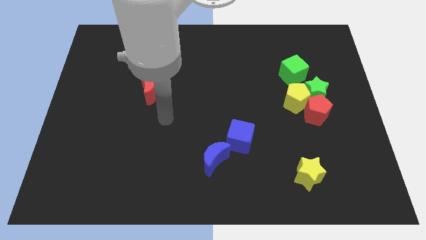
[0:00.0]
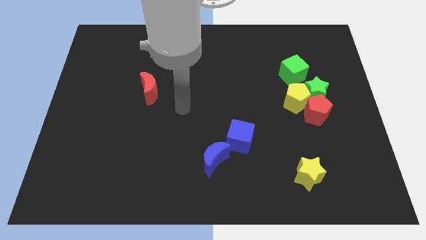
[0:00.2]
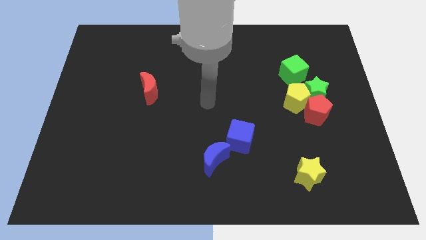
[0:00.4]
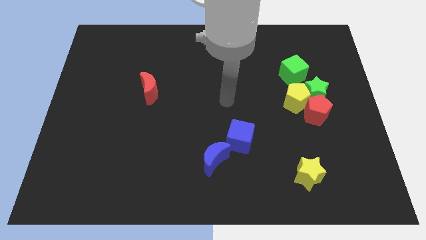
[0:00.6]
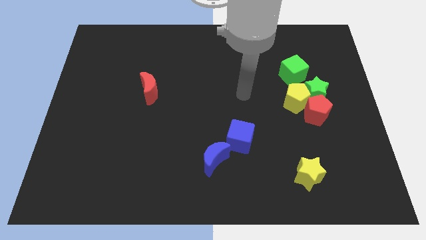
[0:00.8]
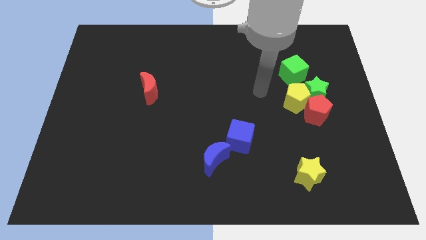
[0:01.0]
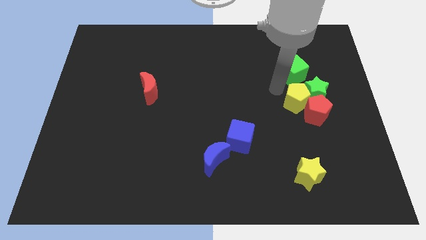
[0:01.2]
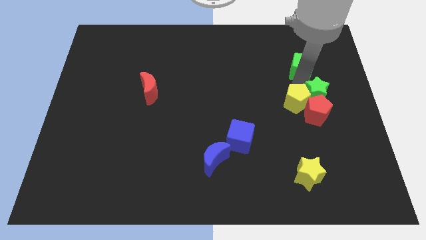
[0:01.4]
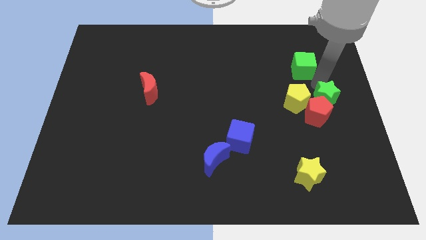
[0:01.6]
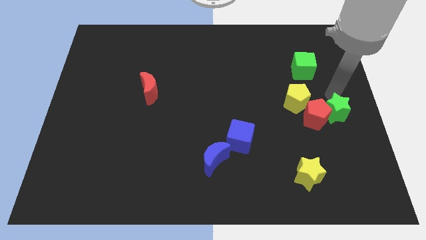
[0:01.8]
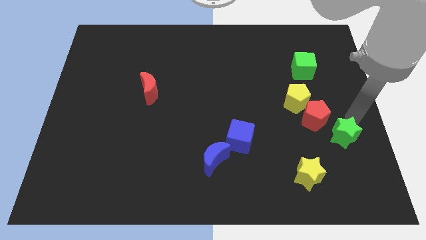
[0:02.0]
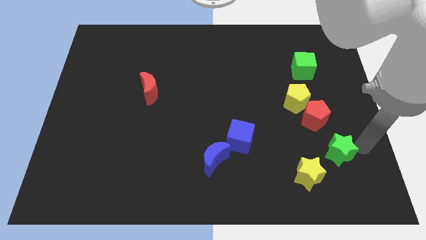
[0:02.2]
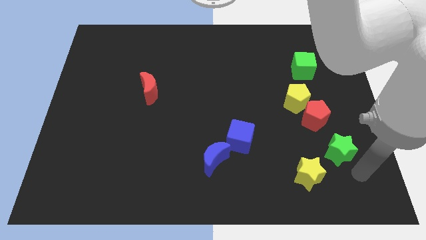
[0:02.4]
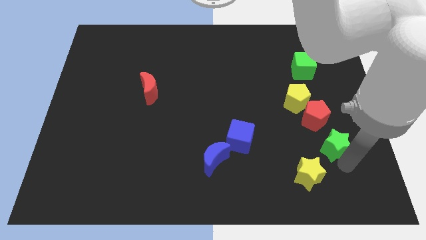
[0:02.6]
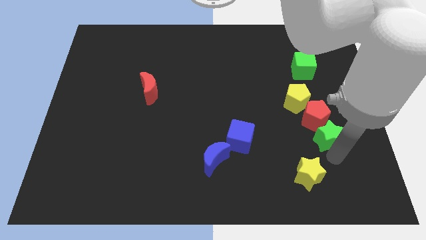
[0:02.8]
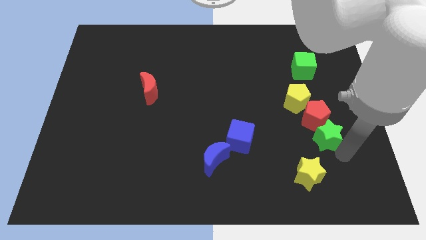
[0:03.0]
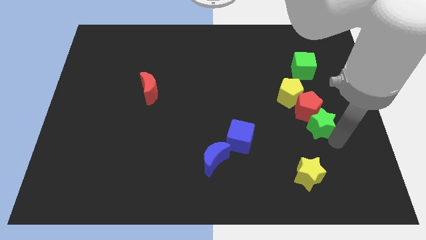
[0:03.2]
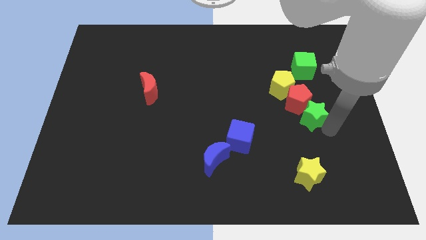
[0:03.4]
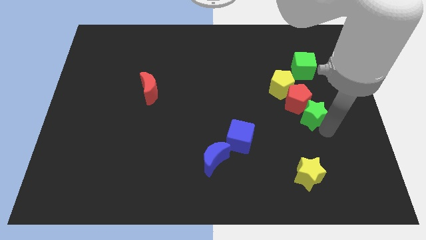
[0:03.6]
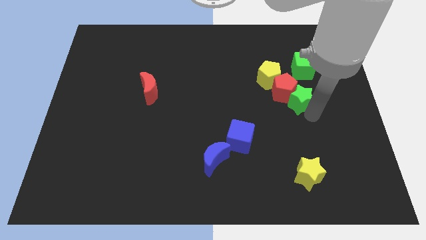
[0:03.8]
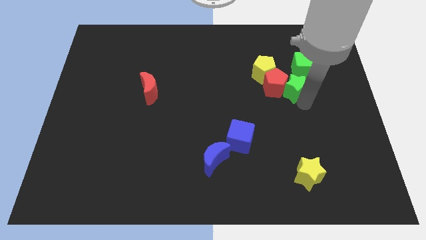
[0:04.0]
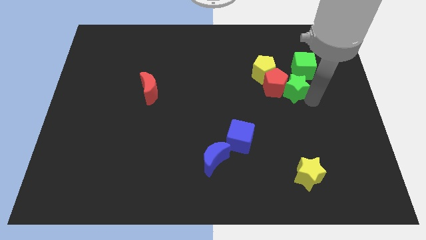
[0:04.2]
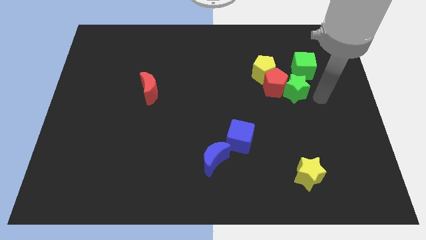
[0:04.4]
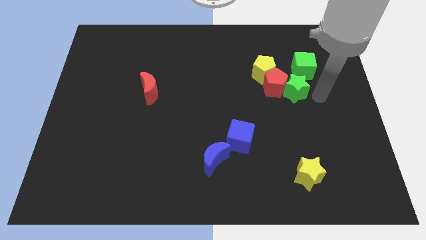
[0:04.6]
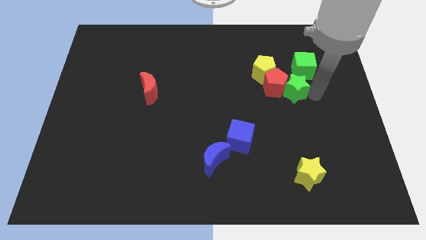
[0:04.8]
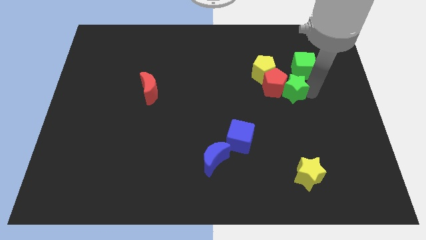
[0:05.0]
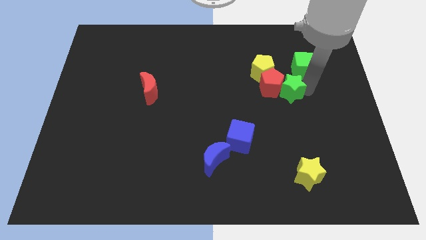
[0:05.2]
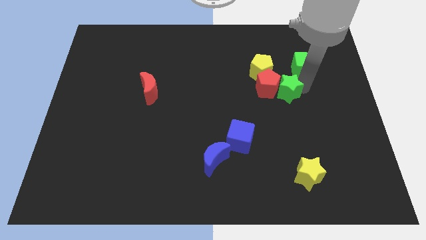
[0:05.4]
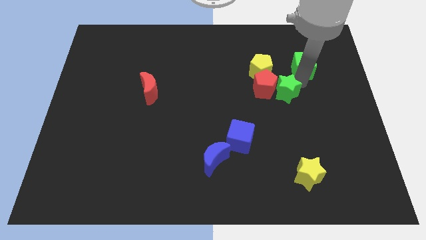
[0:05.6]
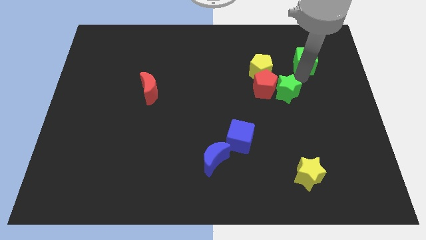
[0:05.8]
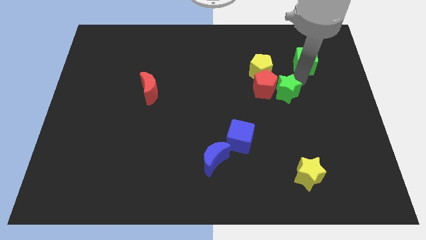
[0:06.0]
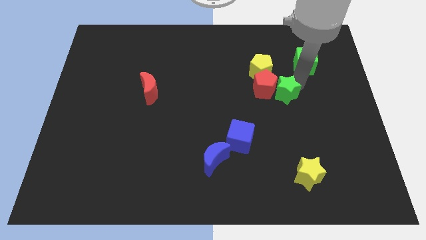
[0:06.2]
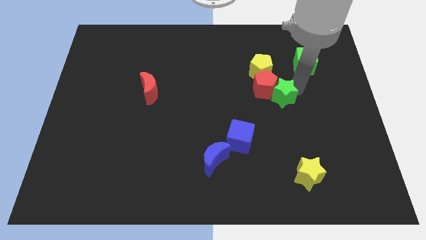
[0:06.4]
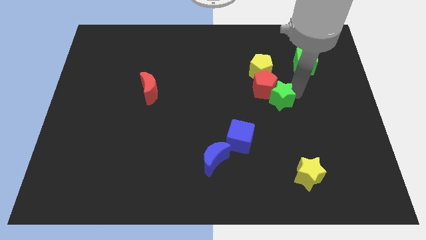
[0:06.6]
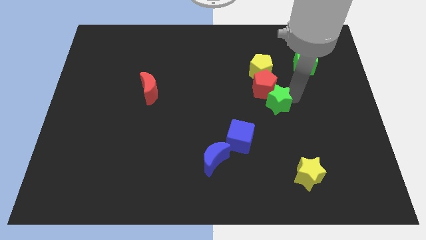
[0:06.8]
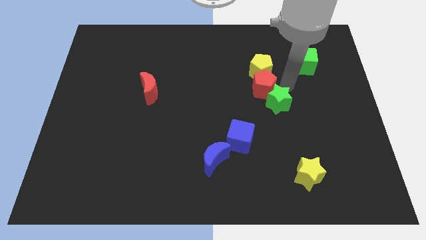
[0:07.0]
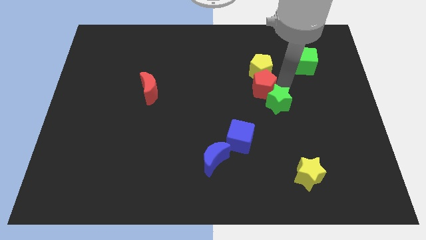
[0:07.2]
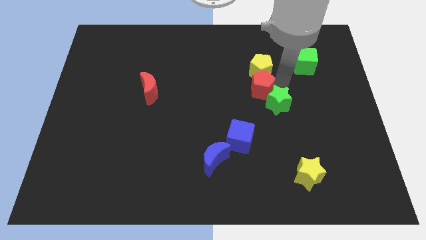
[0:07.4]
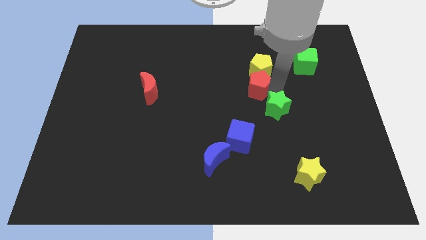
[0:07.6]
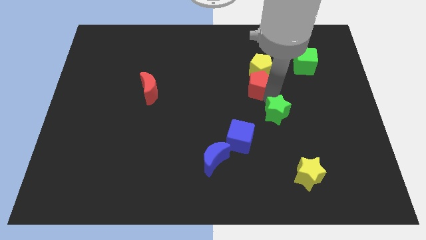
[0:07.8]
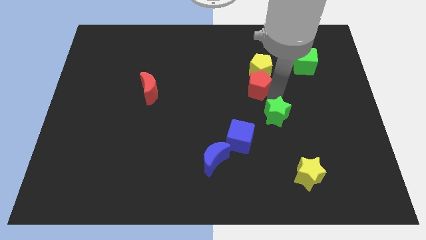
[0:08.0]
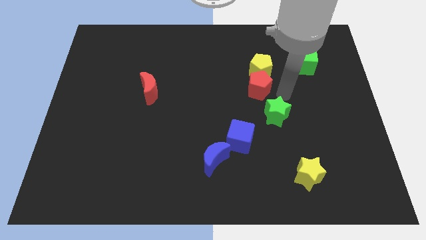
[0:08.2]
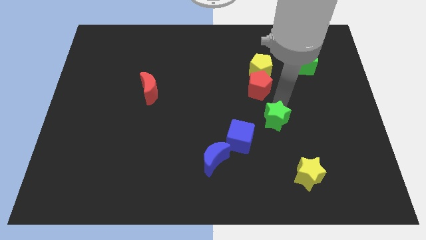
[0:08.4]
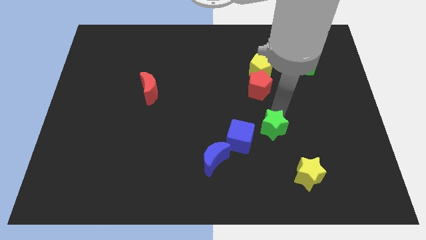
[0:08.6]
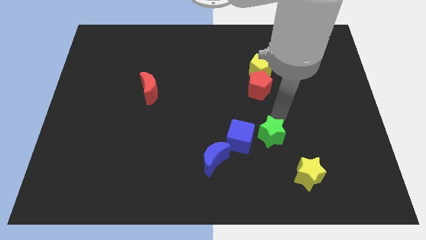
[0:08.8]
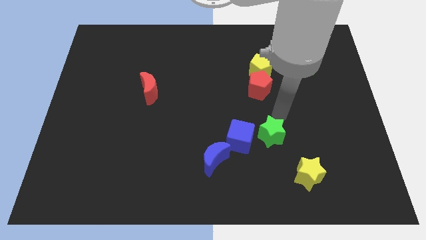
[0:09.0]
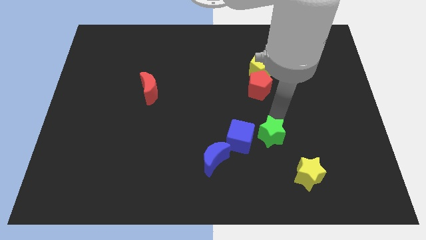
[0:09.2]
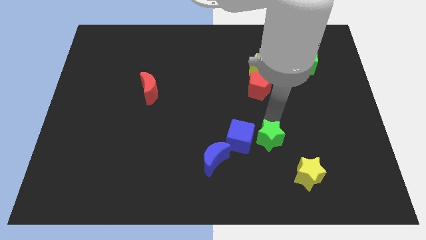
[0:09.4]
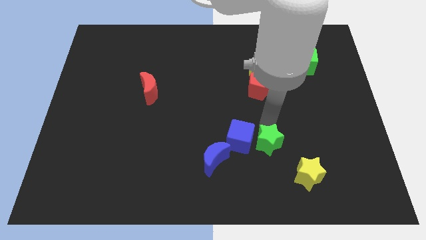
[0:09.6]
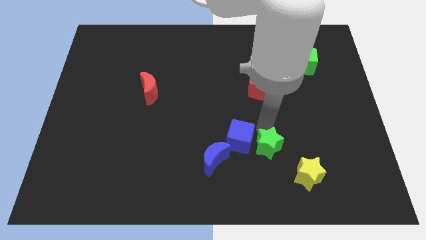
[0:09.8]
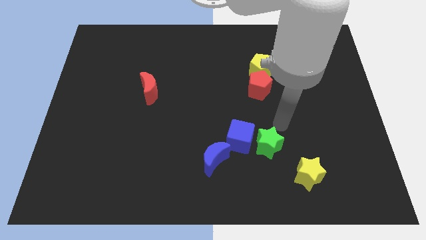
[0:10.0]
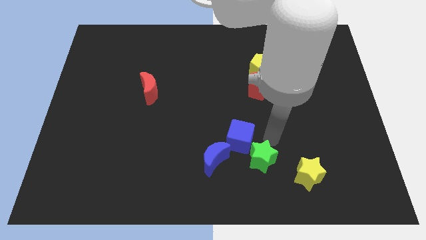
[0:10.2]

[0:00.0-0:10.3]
slide the green star to the bottom side of the blue cube

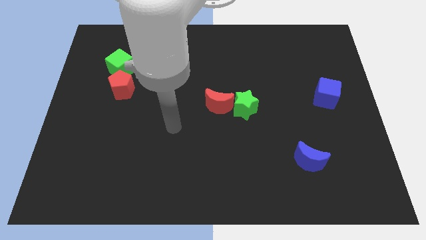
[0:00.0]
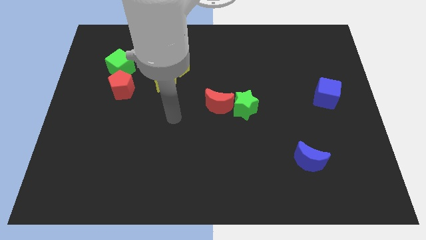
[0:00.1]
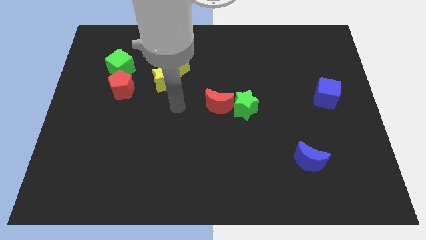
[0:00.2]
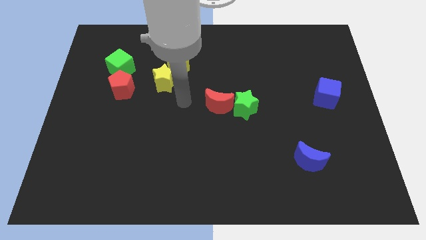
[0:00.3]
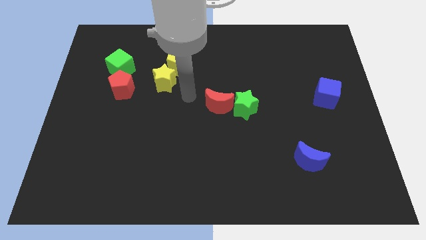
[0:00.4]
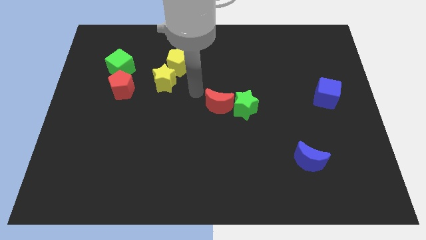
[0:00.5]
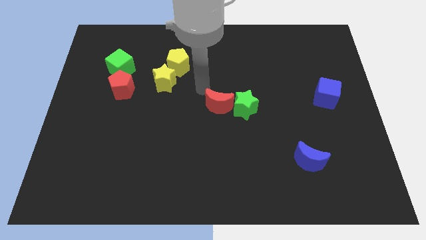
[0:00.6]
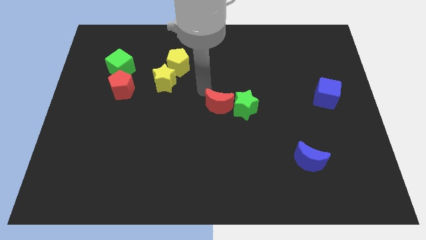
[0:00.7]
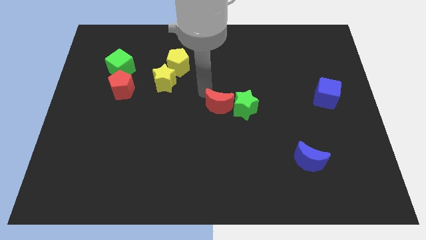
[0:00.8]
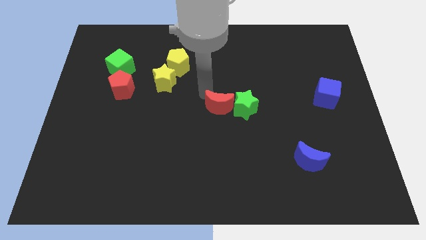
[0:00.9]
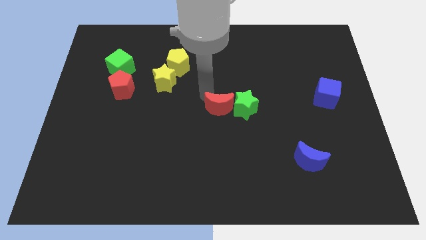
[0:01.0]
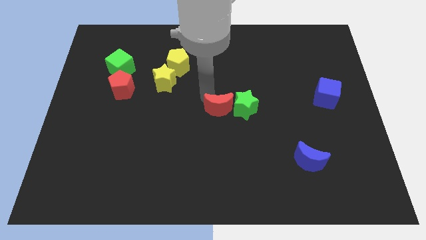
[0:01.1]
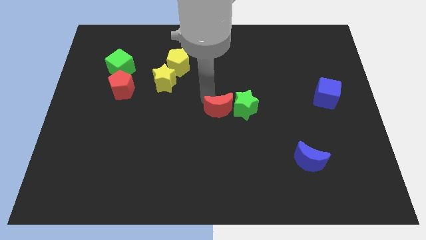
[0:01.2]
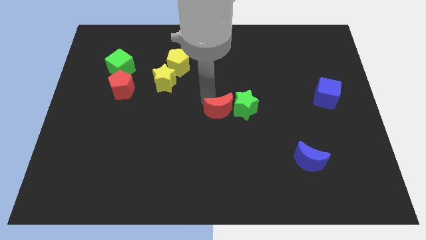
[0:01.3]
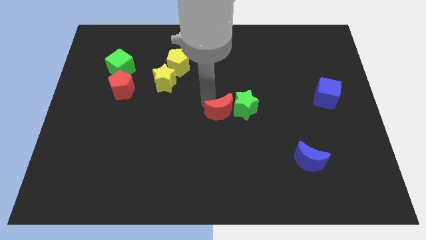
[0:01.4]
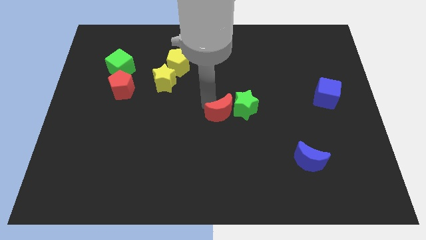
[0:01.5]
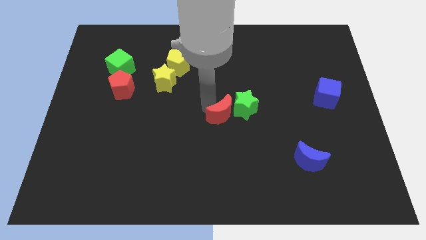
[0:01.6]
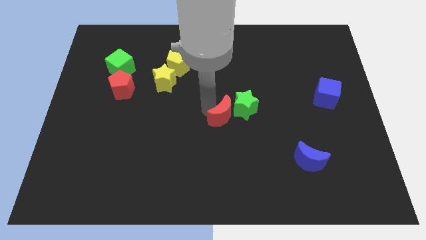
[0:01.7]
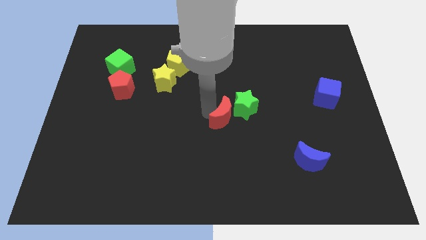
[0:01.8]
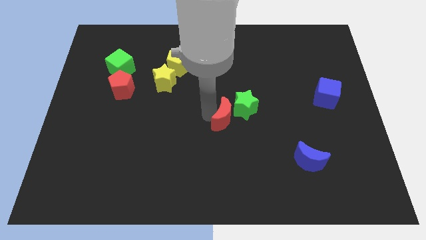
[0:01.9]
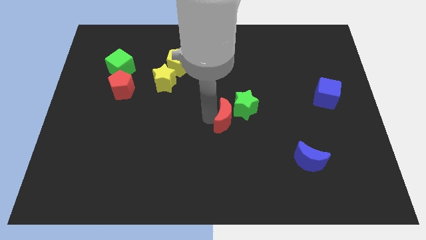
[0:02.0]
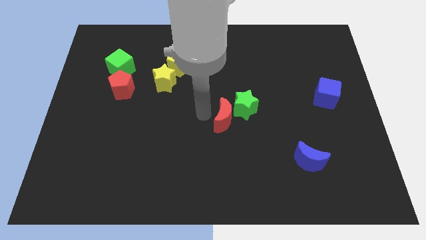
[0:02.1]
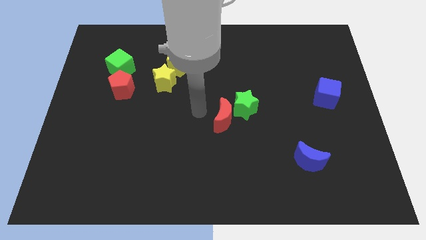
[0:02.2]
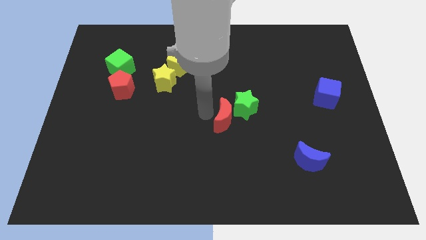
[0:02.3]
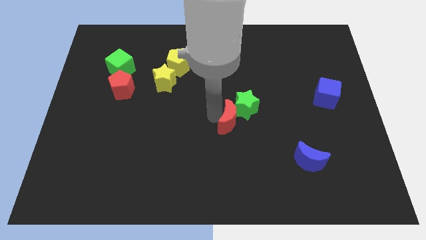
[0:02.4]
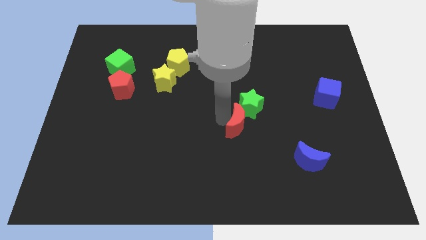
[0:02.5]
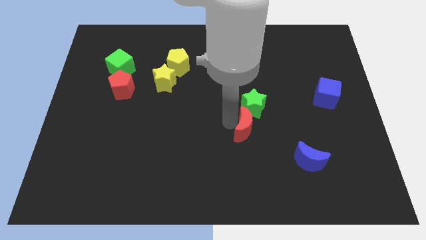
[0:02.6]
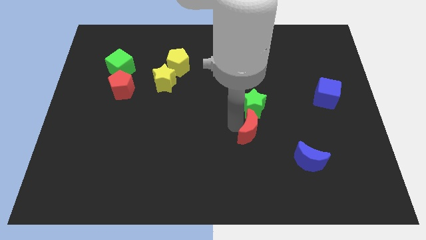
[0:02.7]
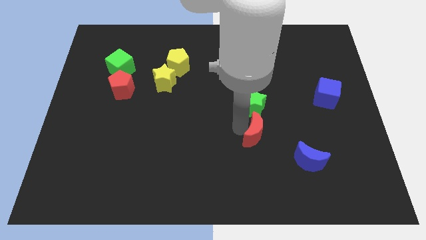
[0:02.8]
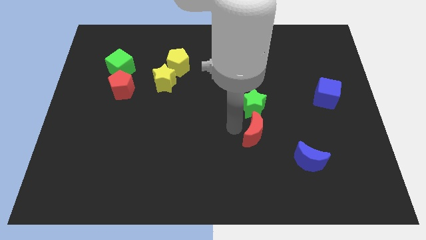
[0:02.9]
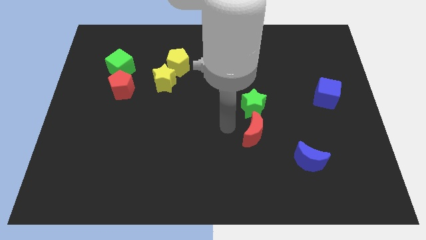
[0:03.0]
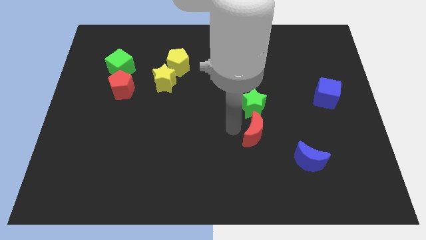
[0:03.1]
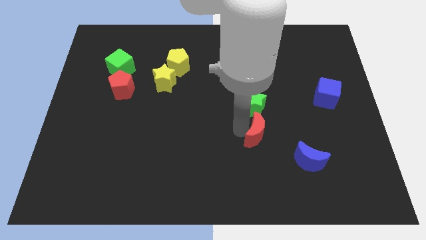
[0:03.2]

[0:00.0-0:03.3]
push the red moon diagonally up and to the left of the blue moon
